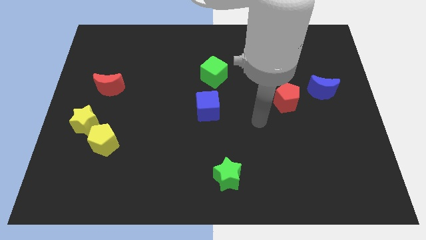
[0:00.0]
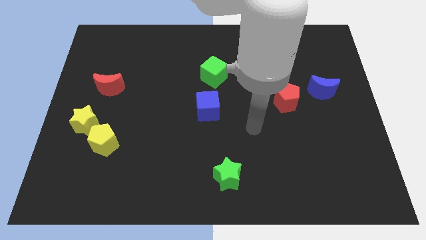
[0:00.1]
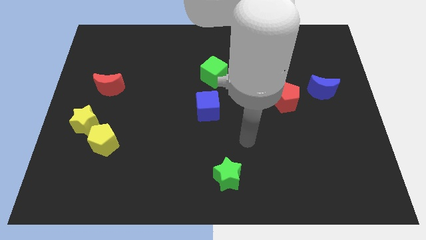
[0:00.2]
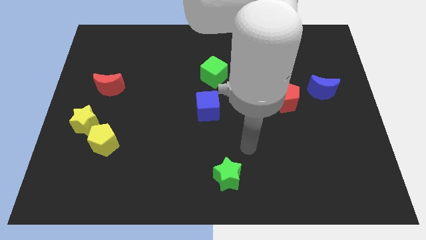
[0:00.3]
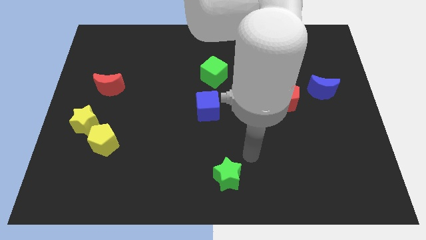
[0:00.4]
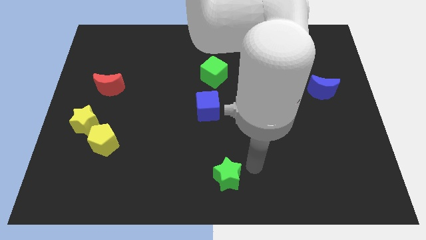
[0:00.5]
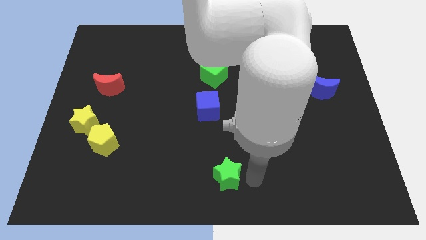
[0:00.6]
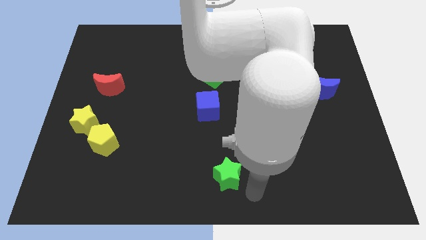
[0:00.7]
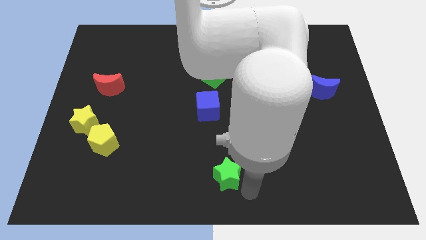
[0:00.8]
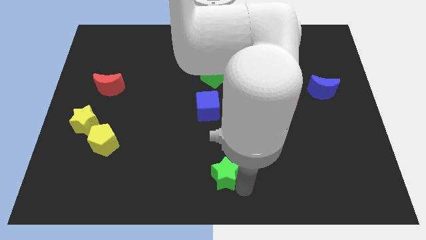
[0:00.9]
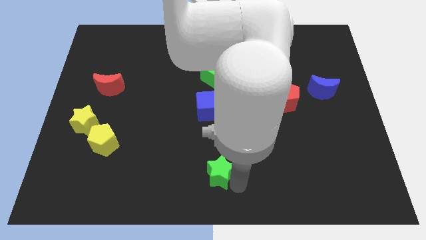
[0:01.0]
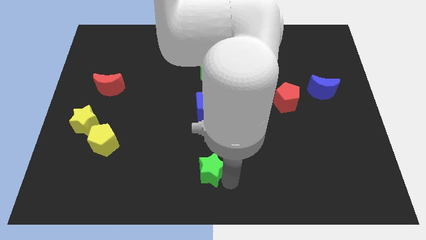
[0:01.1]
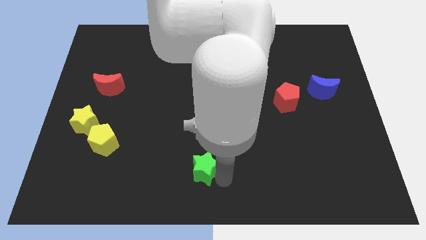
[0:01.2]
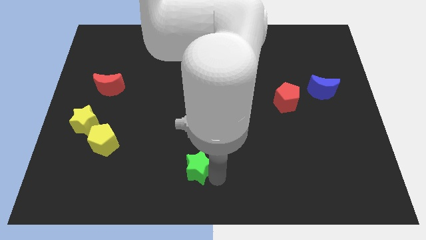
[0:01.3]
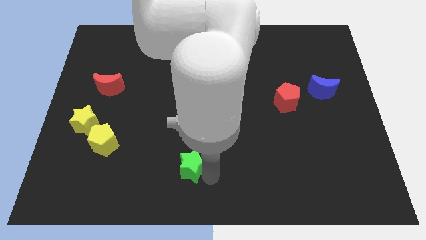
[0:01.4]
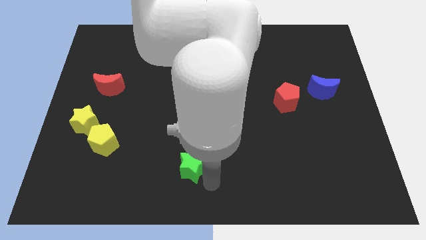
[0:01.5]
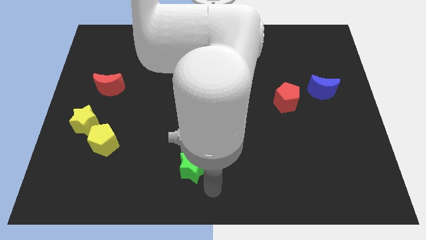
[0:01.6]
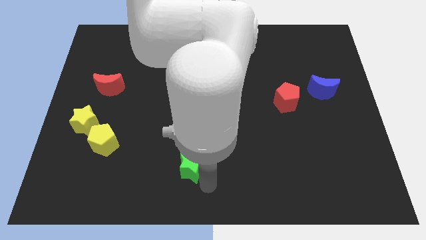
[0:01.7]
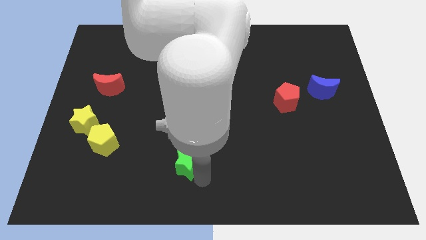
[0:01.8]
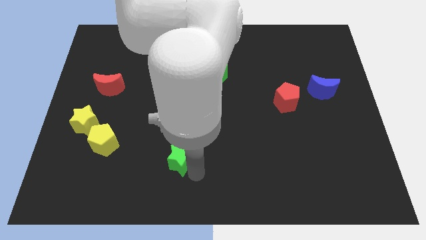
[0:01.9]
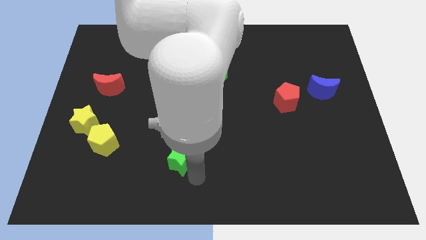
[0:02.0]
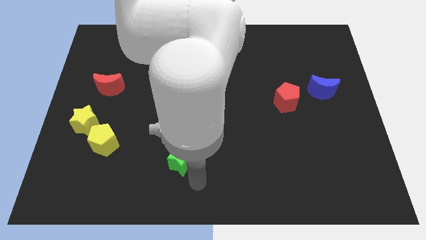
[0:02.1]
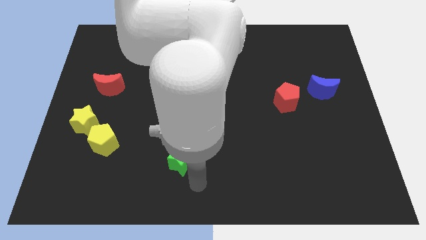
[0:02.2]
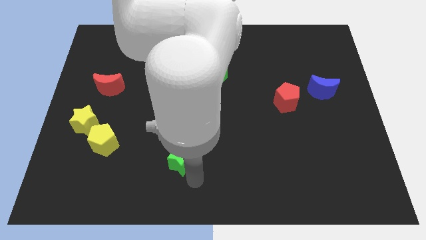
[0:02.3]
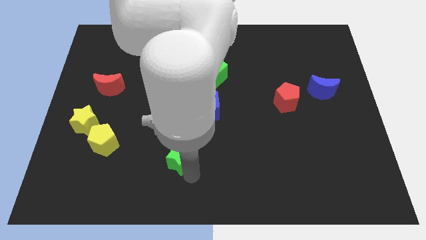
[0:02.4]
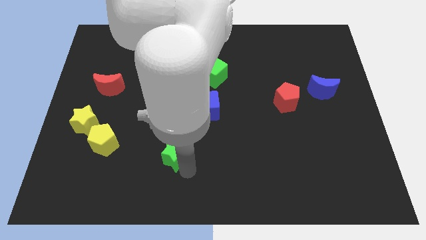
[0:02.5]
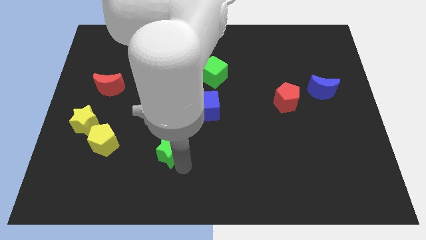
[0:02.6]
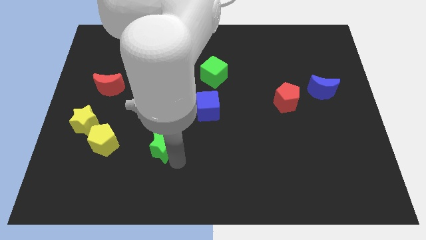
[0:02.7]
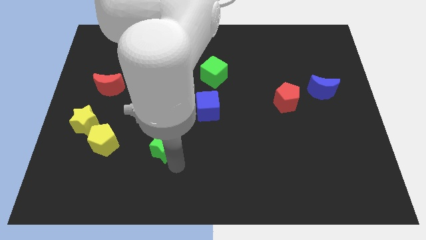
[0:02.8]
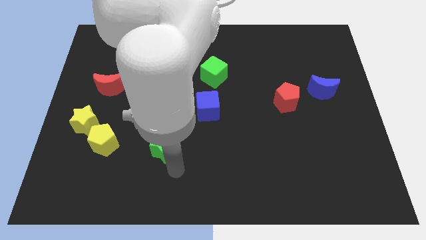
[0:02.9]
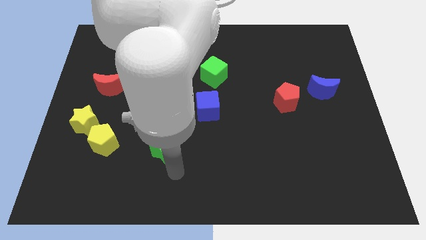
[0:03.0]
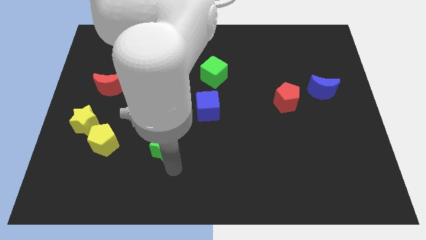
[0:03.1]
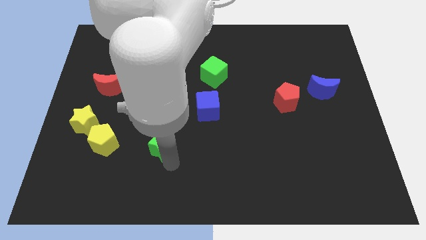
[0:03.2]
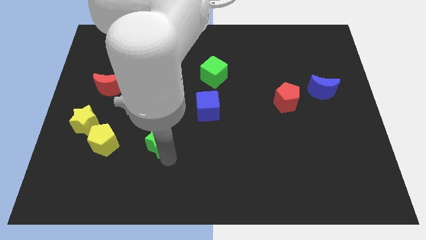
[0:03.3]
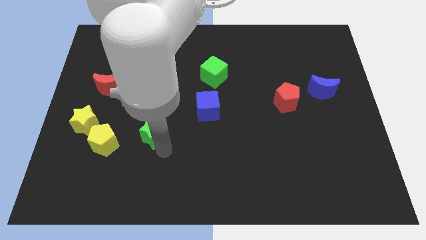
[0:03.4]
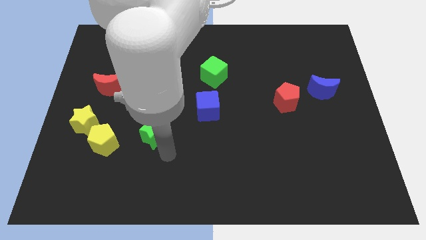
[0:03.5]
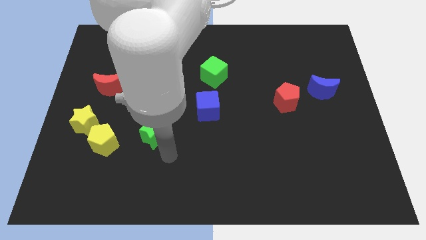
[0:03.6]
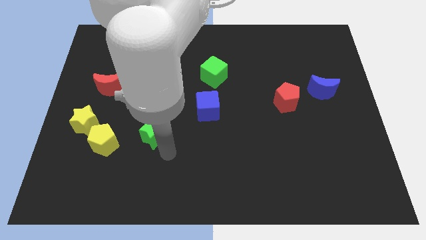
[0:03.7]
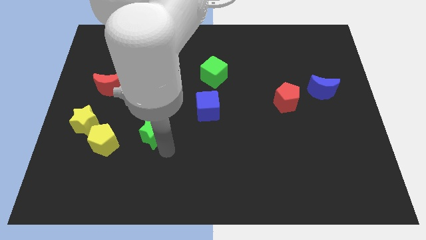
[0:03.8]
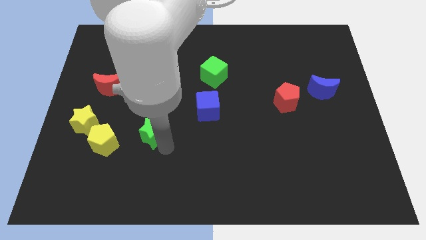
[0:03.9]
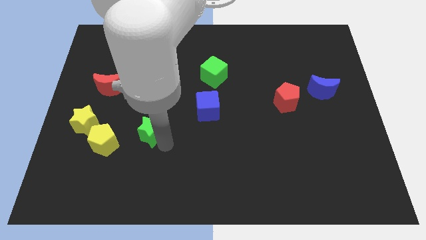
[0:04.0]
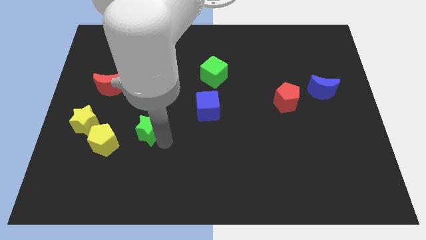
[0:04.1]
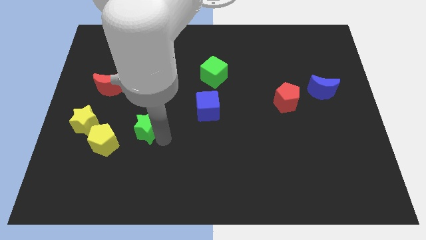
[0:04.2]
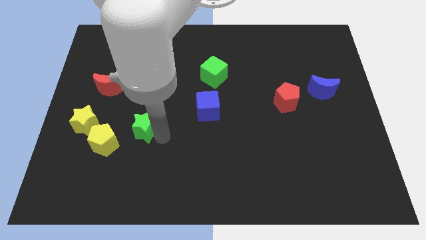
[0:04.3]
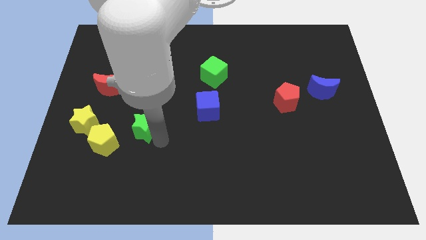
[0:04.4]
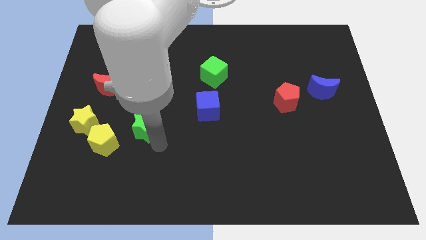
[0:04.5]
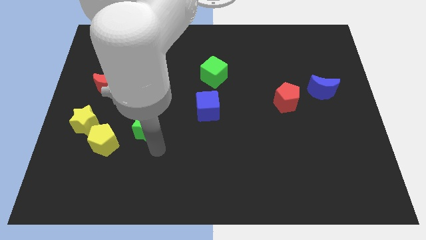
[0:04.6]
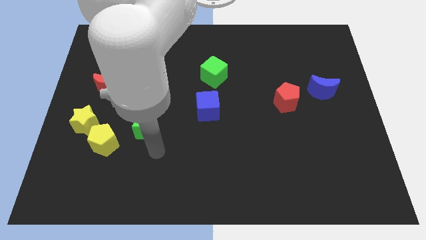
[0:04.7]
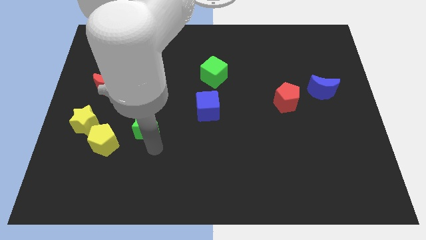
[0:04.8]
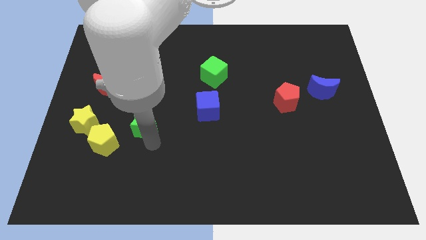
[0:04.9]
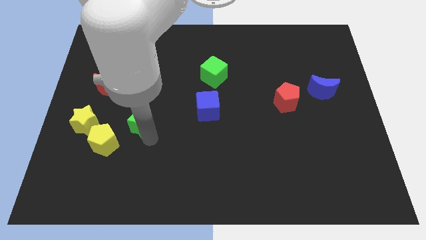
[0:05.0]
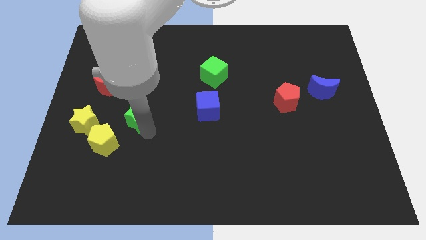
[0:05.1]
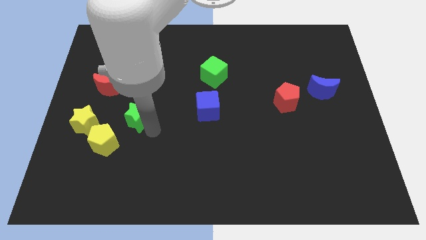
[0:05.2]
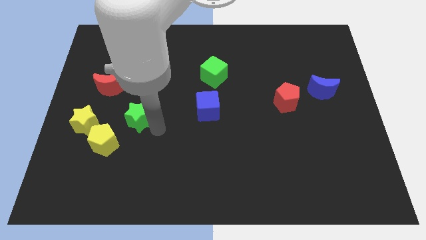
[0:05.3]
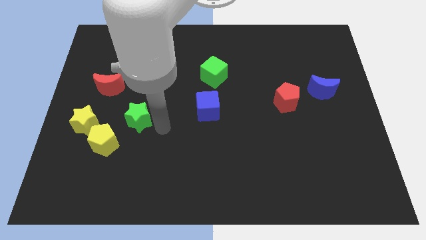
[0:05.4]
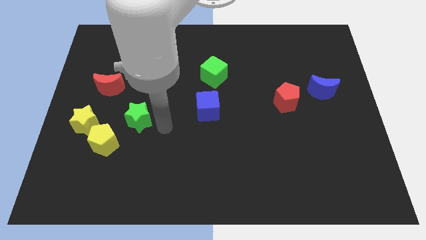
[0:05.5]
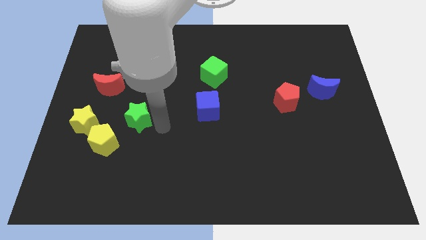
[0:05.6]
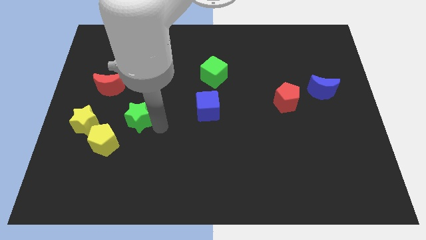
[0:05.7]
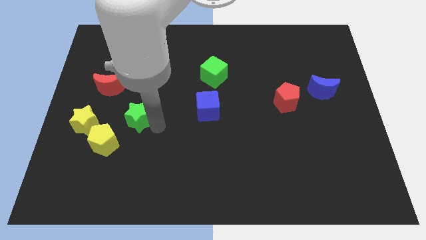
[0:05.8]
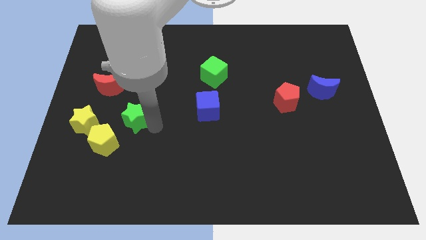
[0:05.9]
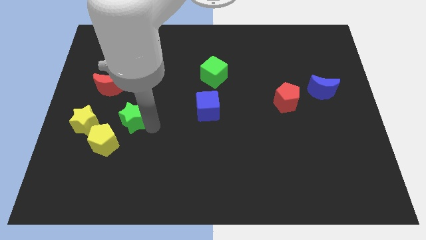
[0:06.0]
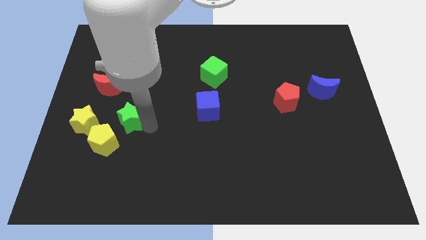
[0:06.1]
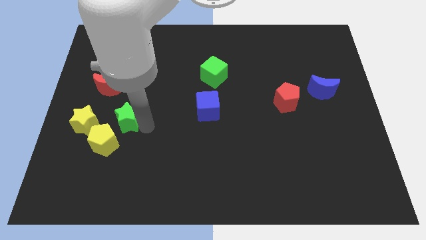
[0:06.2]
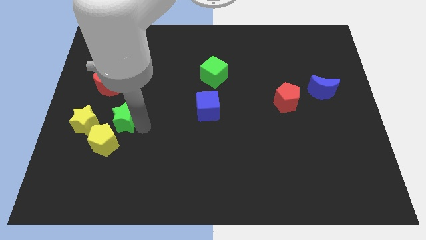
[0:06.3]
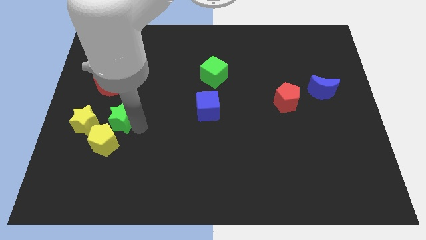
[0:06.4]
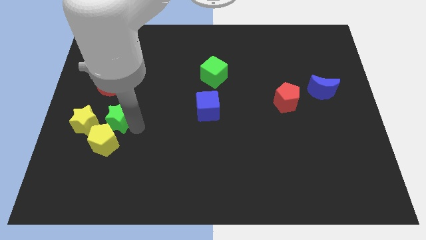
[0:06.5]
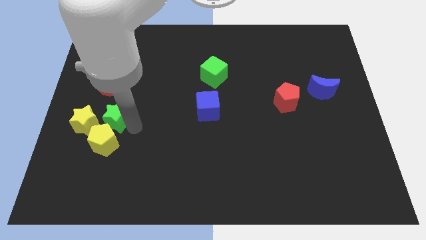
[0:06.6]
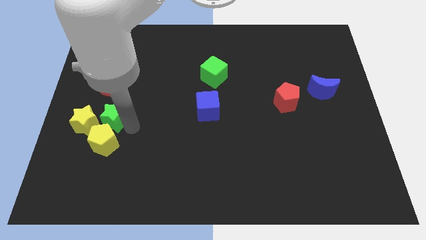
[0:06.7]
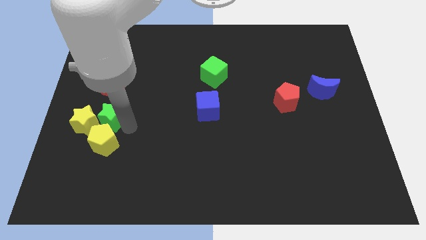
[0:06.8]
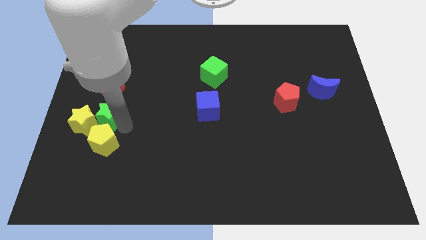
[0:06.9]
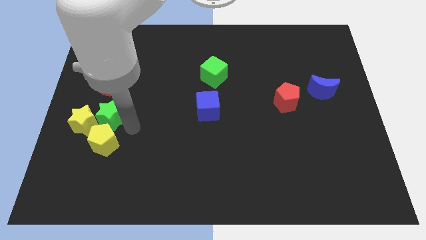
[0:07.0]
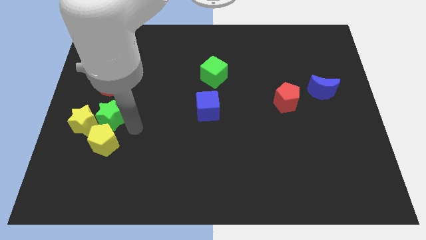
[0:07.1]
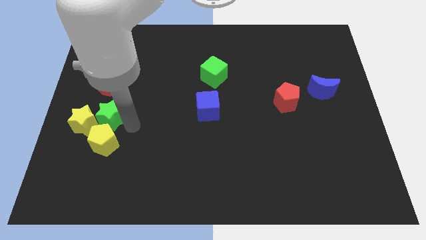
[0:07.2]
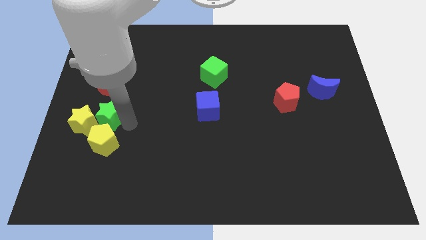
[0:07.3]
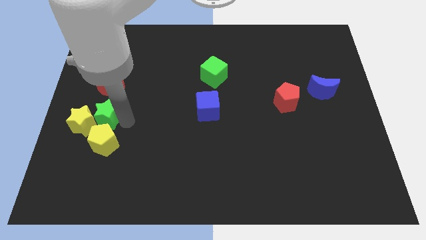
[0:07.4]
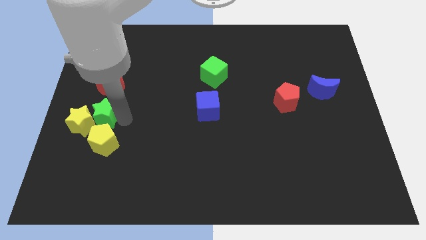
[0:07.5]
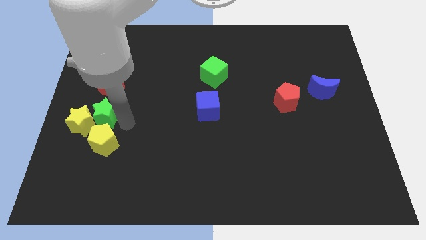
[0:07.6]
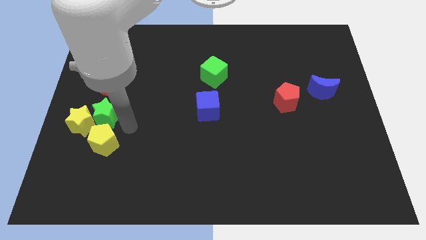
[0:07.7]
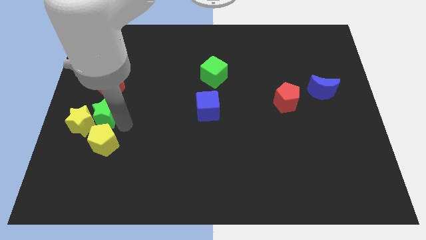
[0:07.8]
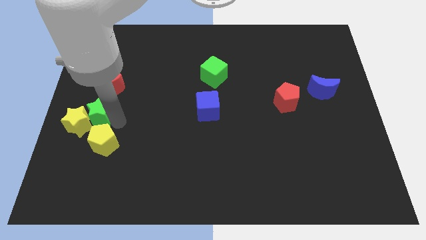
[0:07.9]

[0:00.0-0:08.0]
slide the green star to the left side of the board
